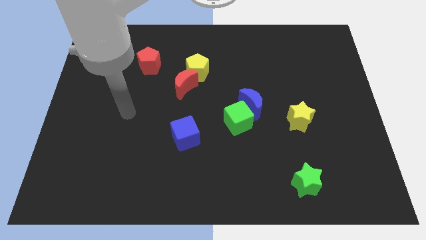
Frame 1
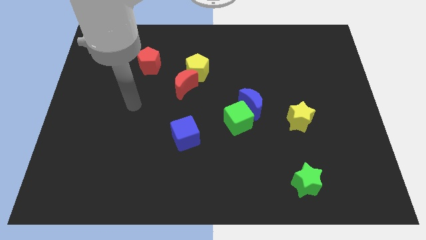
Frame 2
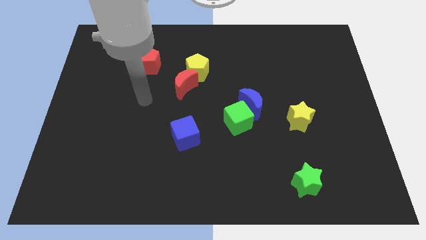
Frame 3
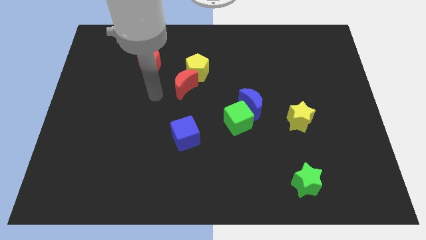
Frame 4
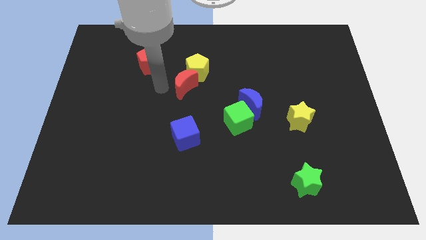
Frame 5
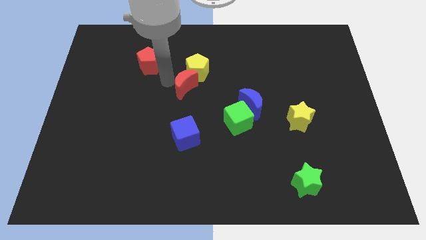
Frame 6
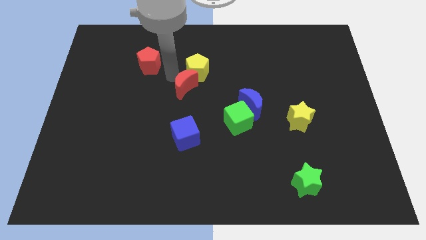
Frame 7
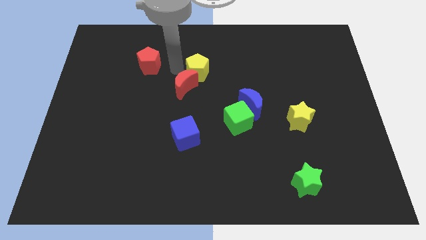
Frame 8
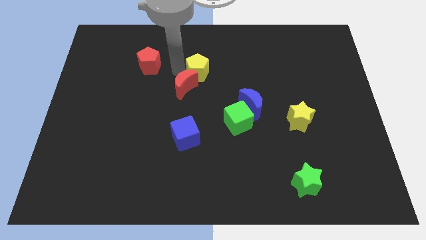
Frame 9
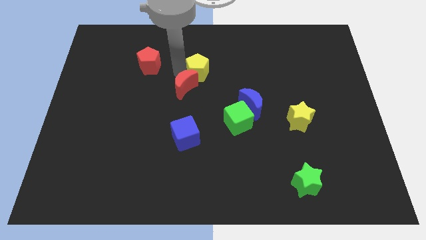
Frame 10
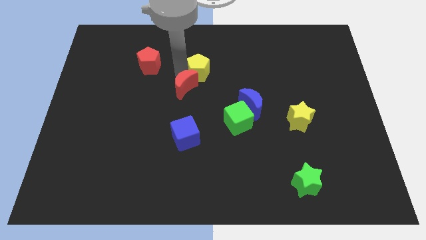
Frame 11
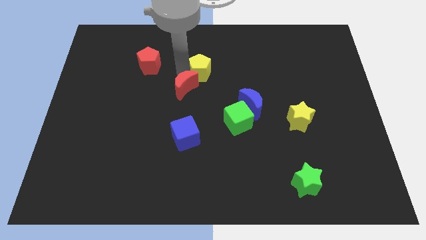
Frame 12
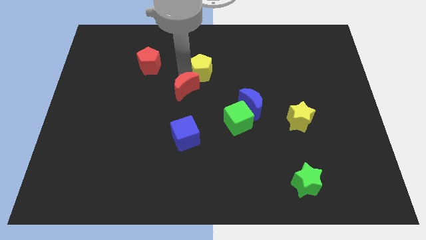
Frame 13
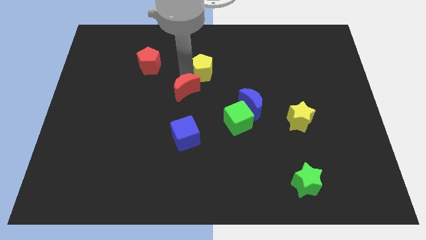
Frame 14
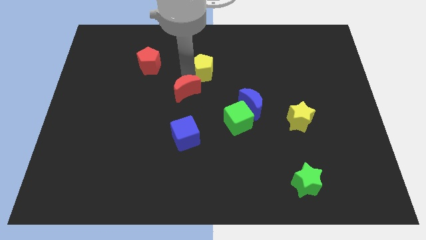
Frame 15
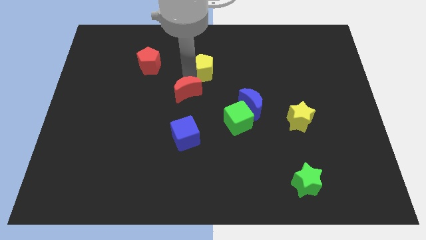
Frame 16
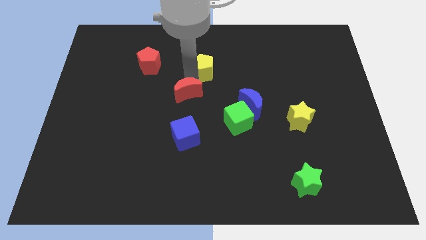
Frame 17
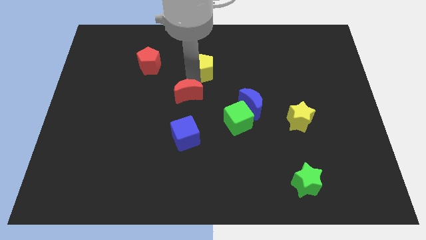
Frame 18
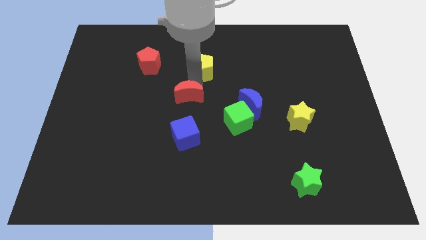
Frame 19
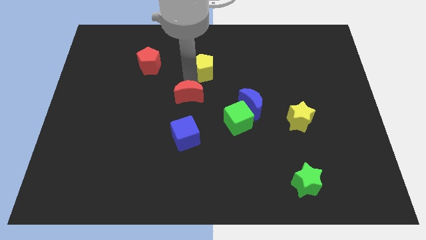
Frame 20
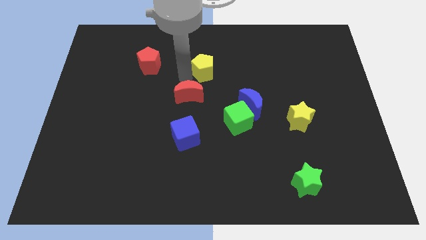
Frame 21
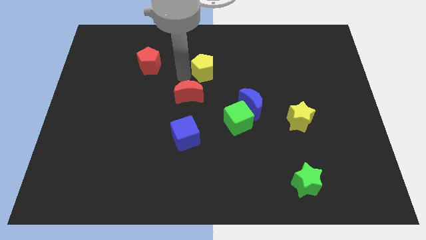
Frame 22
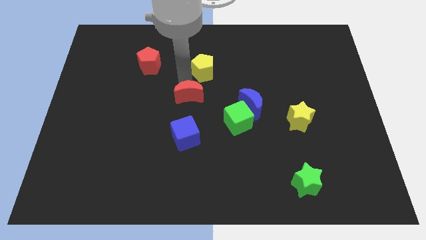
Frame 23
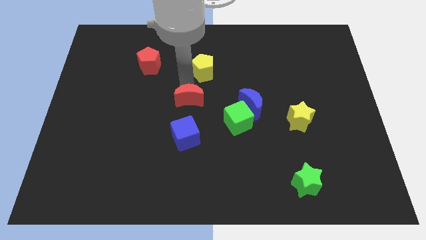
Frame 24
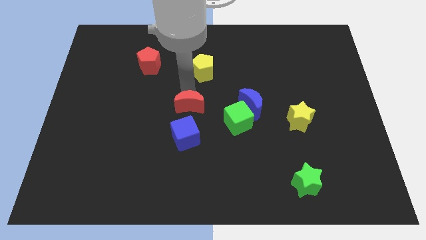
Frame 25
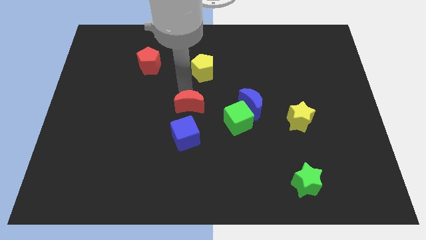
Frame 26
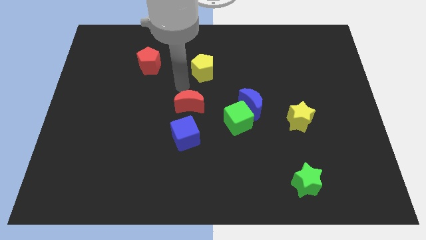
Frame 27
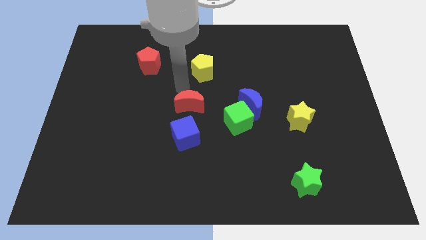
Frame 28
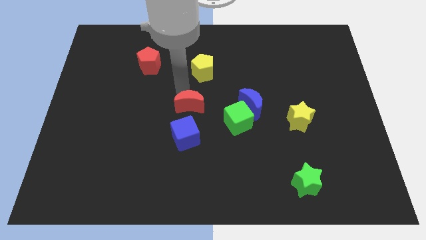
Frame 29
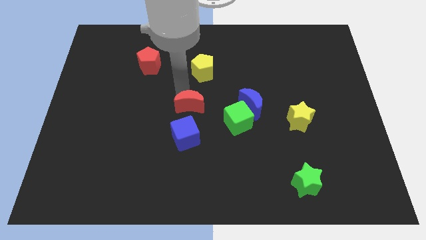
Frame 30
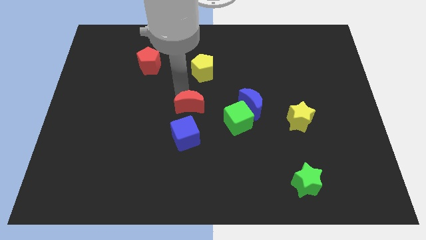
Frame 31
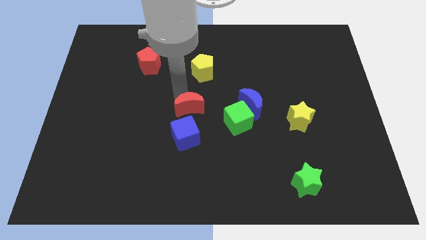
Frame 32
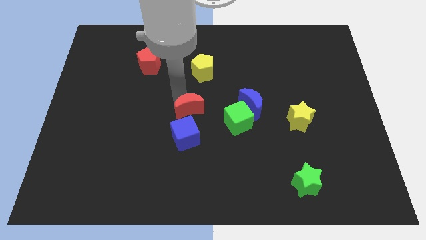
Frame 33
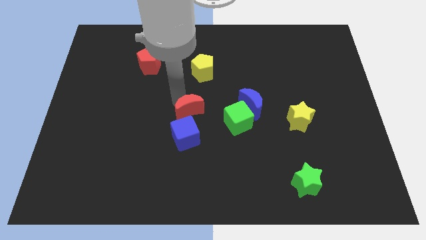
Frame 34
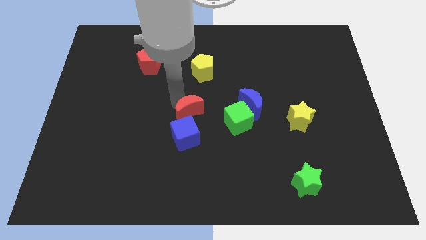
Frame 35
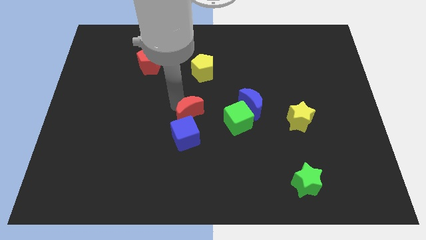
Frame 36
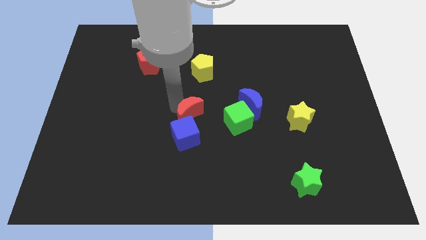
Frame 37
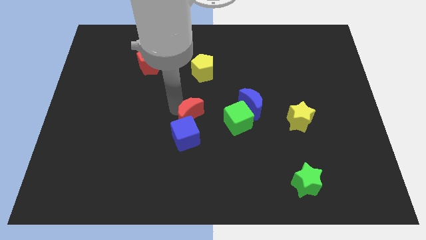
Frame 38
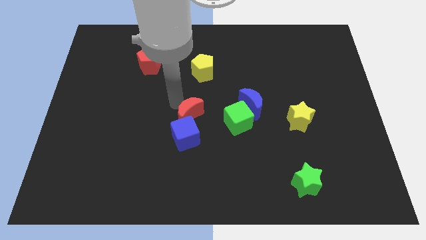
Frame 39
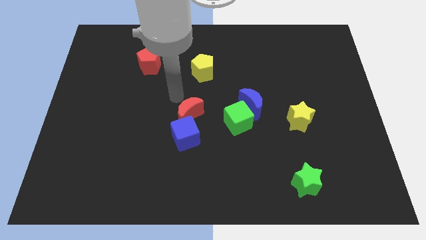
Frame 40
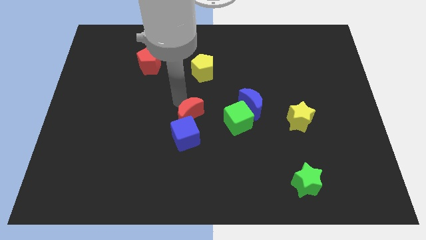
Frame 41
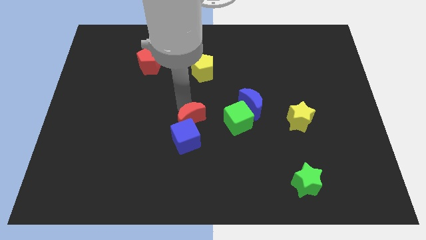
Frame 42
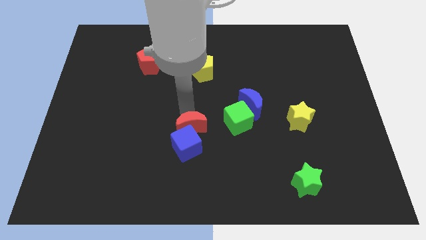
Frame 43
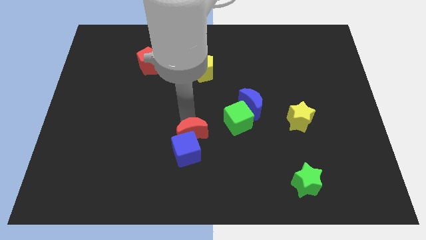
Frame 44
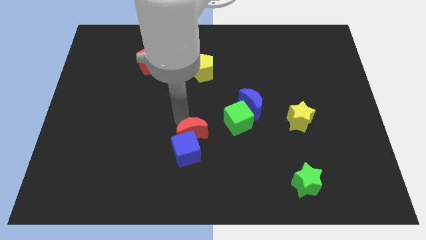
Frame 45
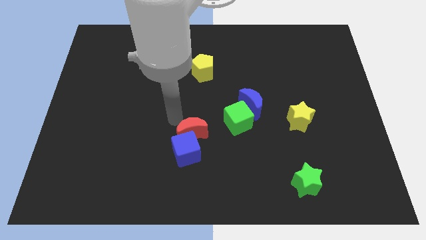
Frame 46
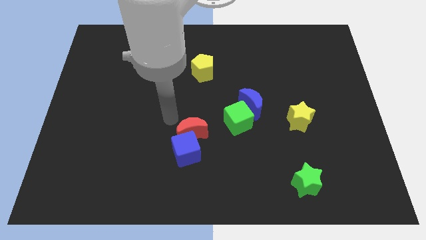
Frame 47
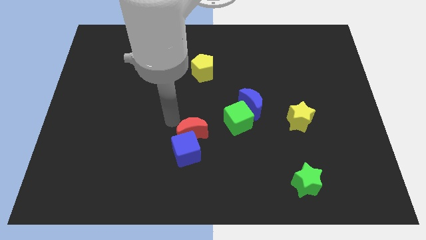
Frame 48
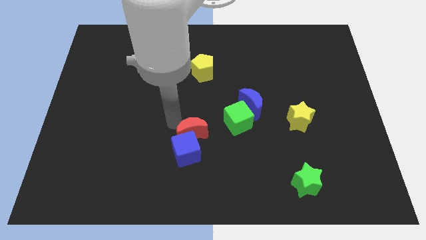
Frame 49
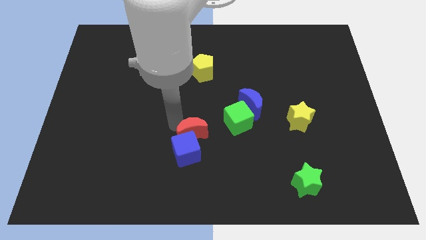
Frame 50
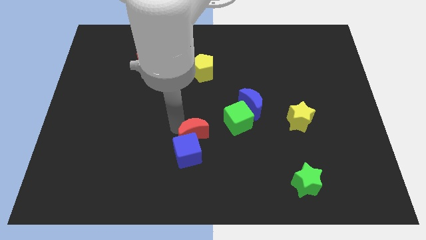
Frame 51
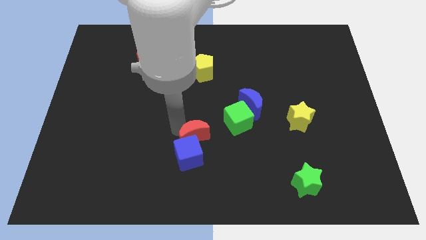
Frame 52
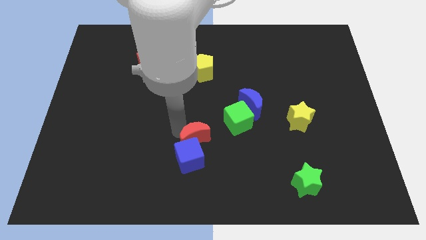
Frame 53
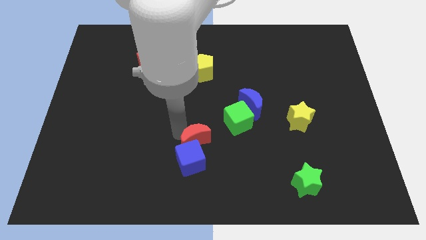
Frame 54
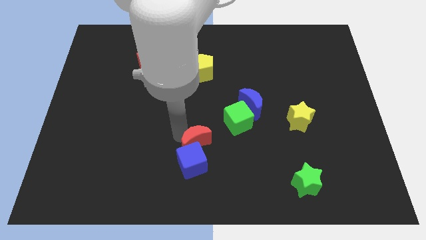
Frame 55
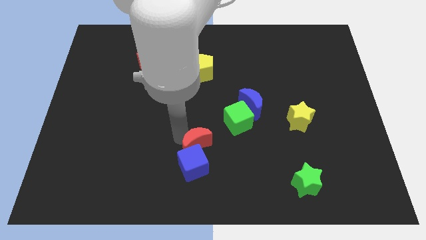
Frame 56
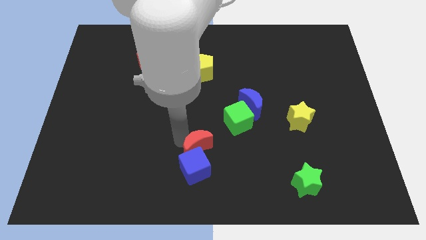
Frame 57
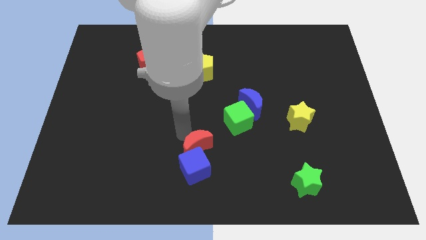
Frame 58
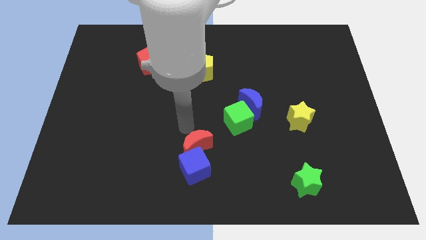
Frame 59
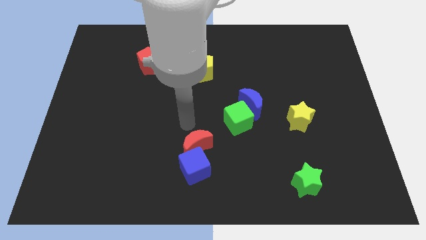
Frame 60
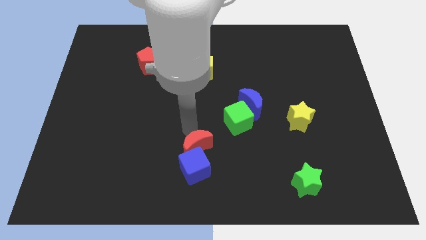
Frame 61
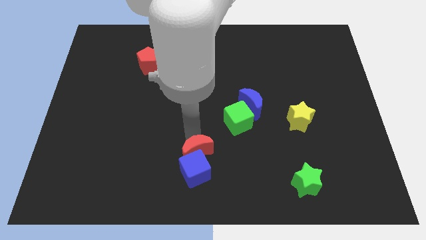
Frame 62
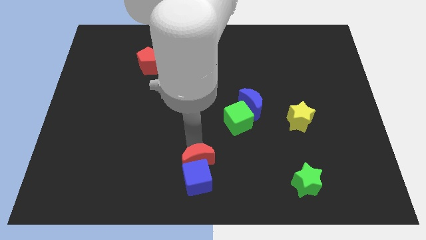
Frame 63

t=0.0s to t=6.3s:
move the red moon to the bottom
